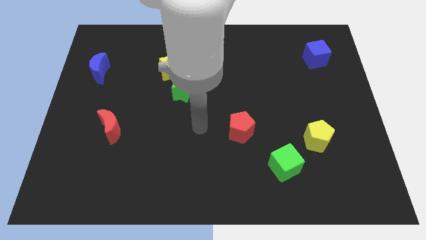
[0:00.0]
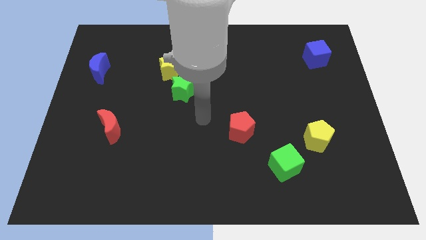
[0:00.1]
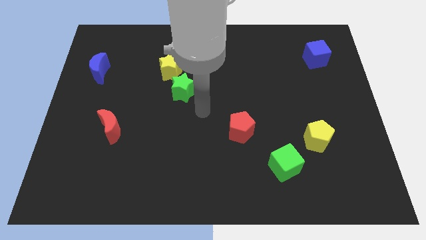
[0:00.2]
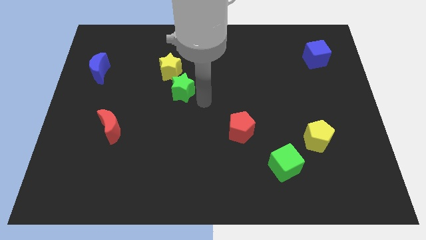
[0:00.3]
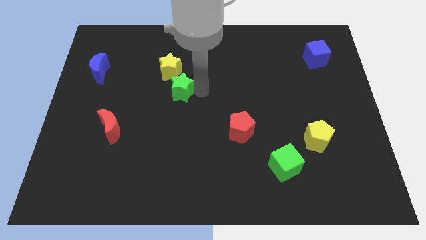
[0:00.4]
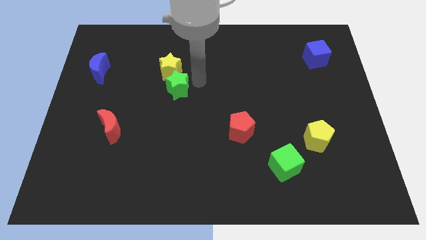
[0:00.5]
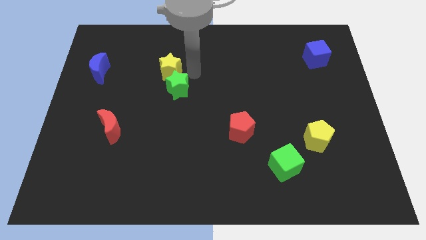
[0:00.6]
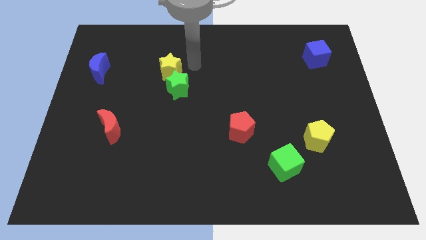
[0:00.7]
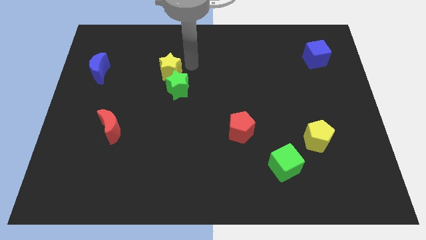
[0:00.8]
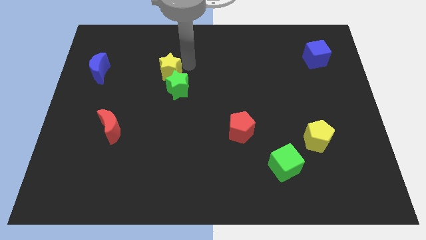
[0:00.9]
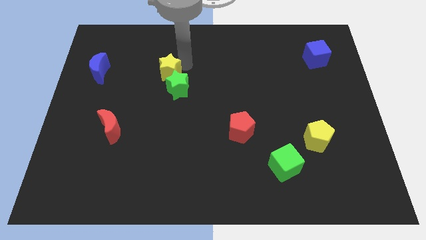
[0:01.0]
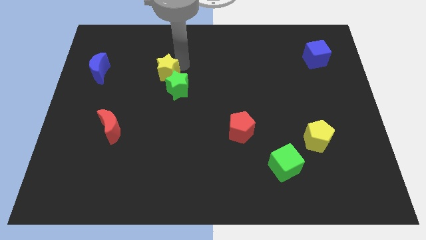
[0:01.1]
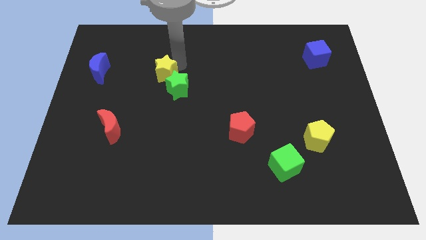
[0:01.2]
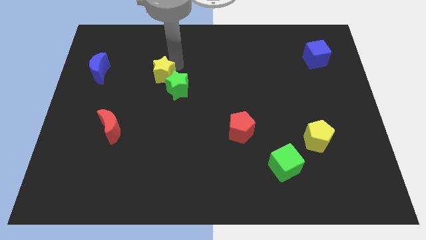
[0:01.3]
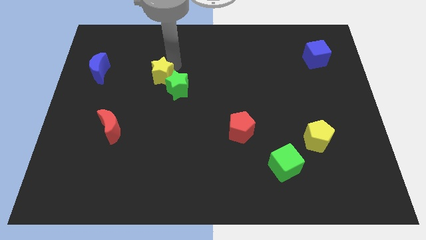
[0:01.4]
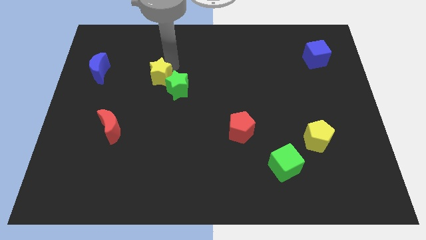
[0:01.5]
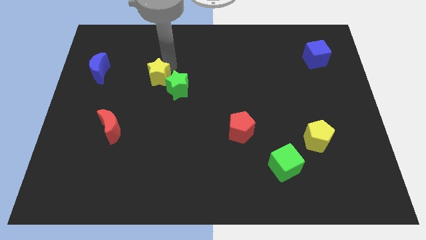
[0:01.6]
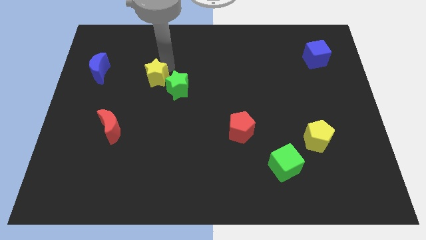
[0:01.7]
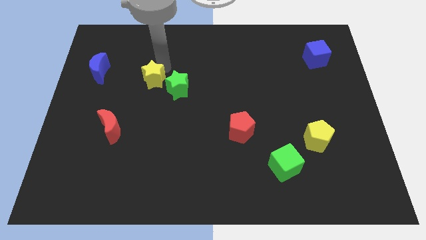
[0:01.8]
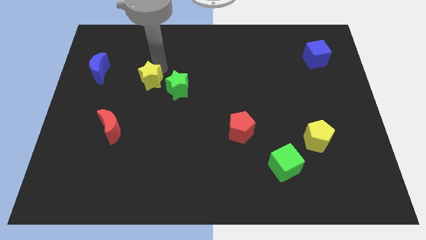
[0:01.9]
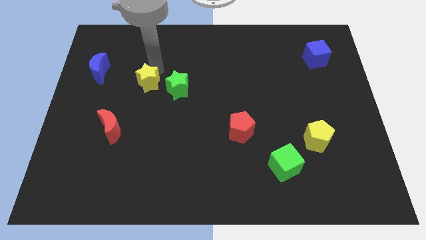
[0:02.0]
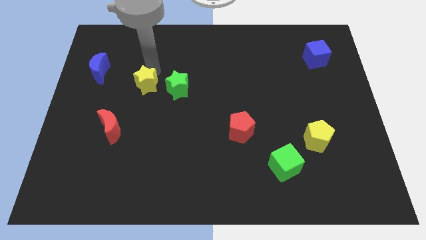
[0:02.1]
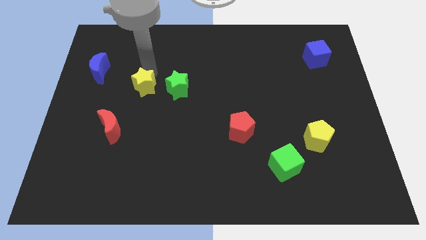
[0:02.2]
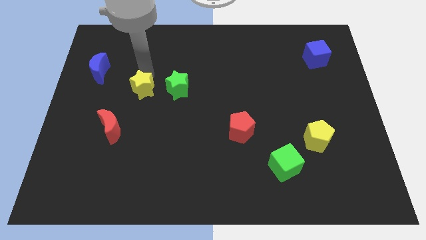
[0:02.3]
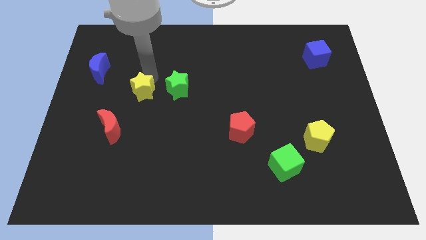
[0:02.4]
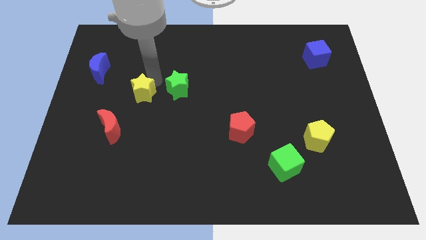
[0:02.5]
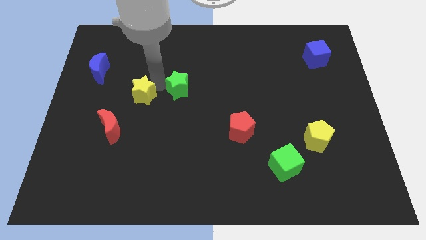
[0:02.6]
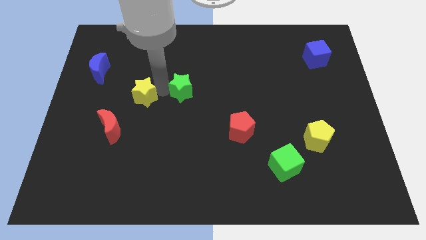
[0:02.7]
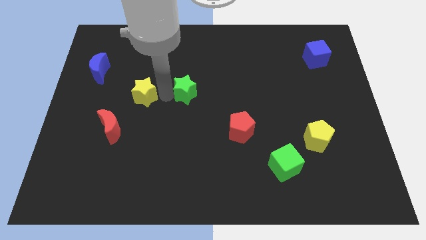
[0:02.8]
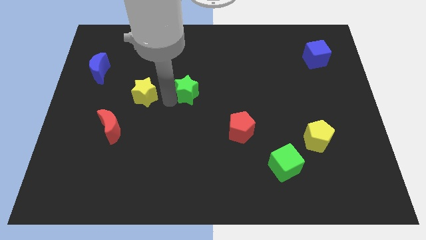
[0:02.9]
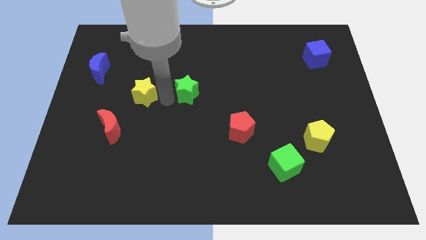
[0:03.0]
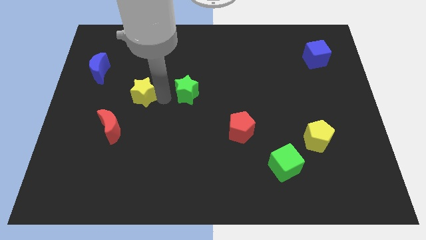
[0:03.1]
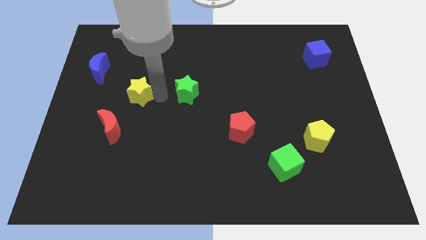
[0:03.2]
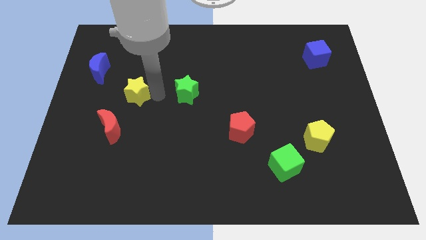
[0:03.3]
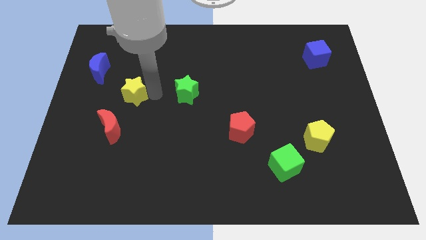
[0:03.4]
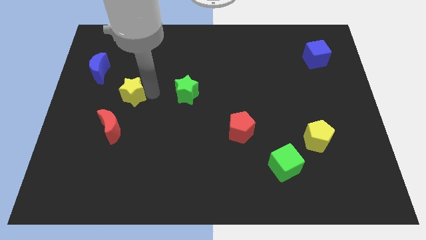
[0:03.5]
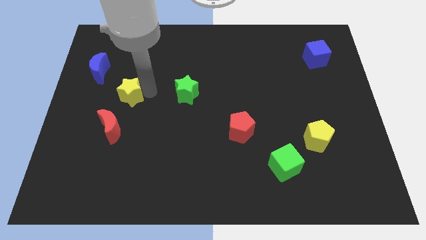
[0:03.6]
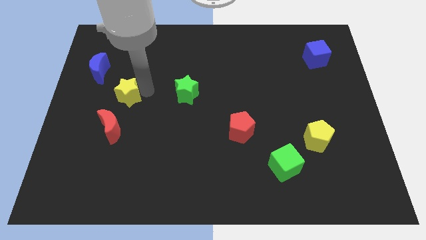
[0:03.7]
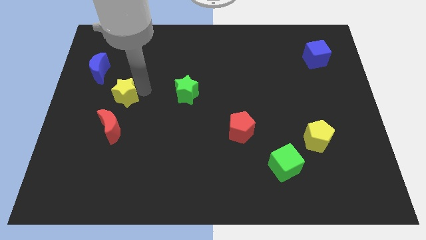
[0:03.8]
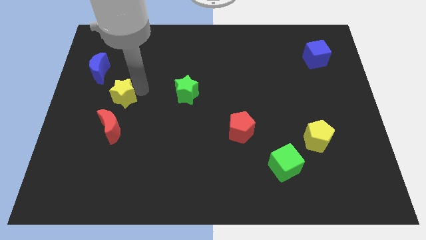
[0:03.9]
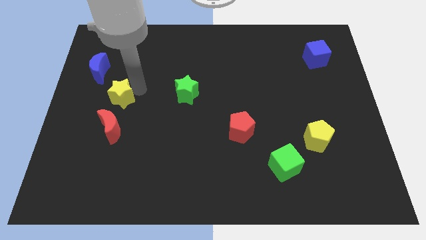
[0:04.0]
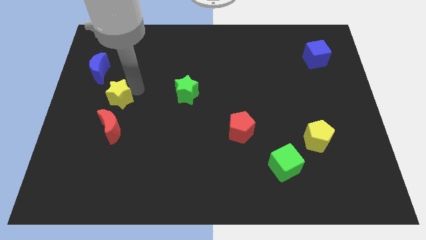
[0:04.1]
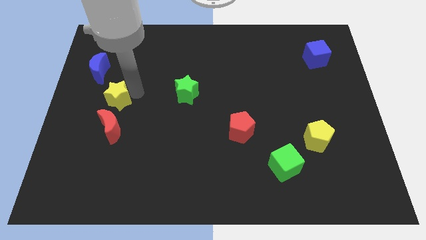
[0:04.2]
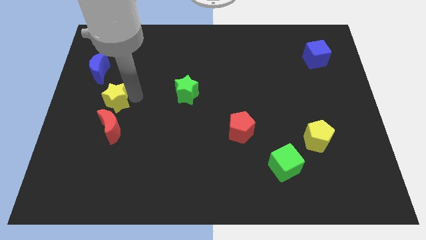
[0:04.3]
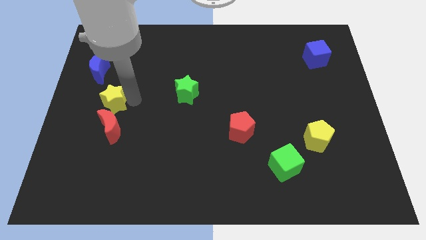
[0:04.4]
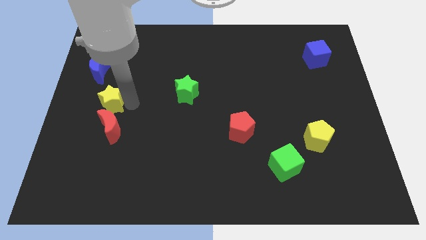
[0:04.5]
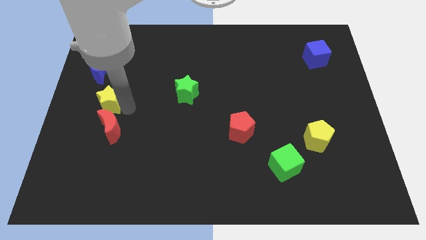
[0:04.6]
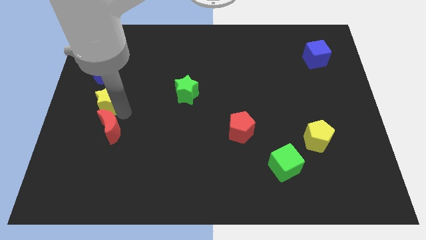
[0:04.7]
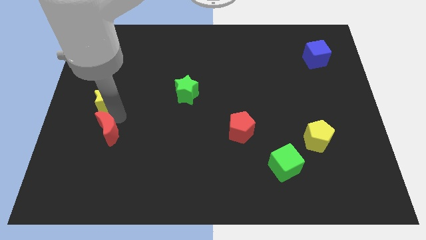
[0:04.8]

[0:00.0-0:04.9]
push the yellow star to the left side of the board

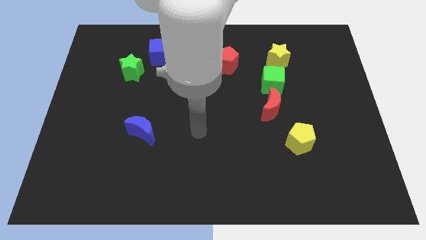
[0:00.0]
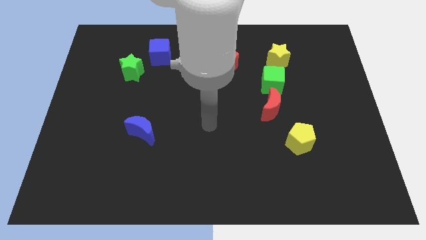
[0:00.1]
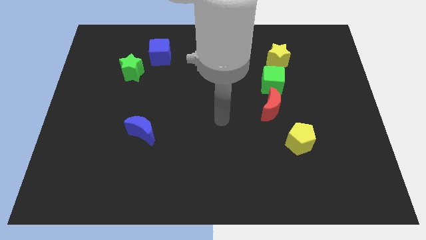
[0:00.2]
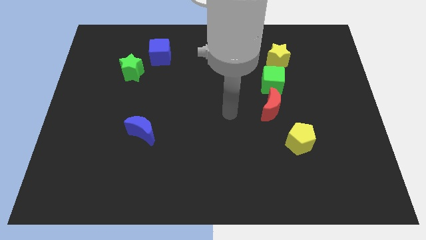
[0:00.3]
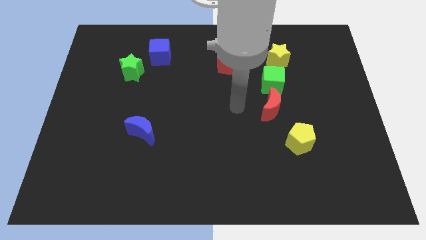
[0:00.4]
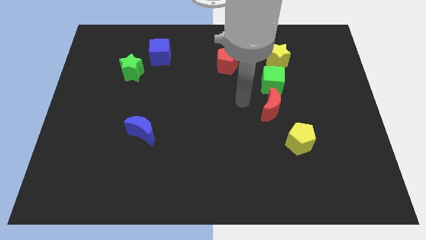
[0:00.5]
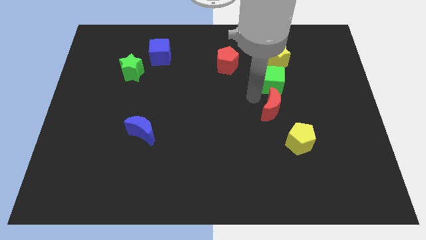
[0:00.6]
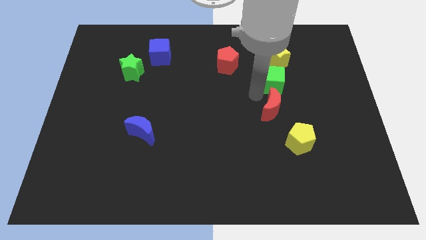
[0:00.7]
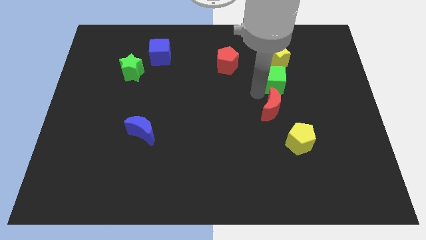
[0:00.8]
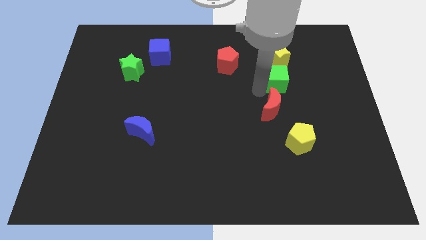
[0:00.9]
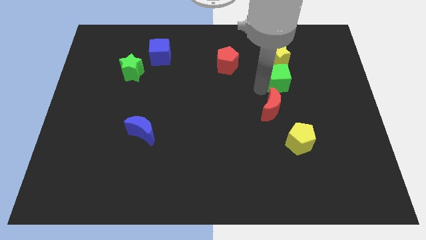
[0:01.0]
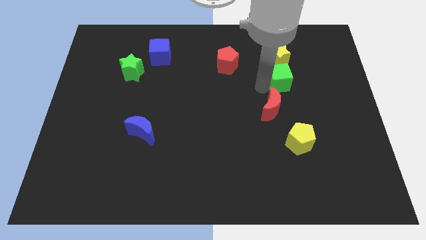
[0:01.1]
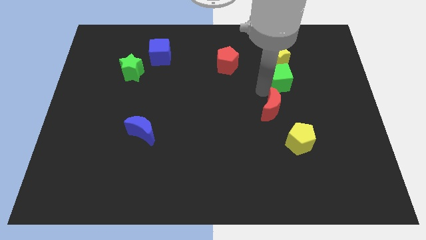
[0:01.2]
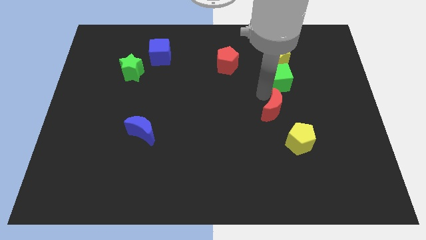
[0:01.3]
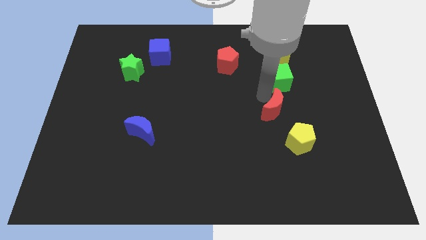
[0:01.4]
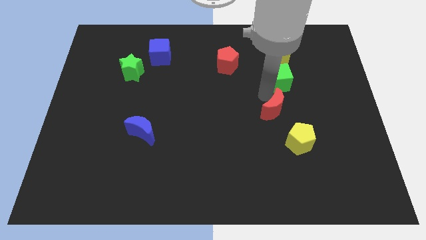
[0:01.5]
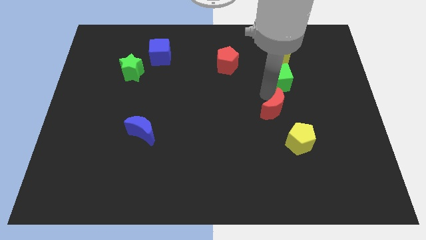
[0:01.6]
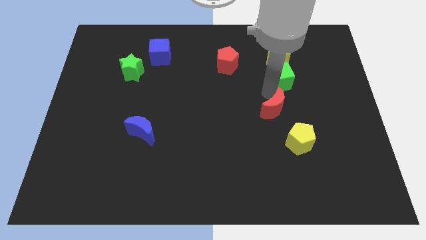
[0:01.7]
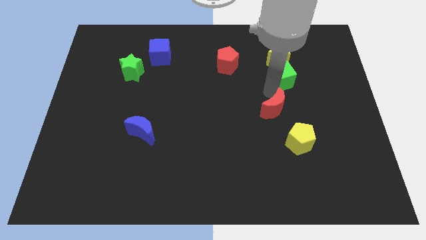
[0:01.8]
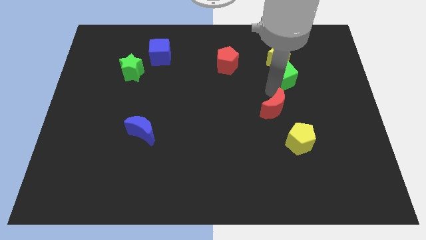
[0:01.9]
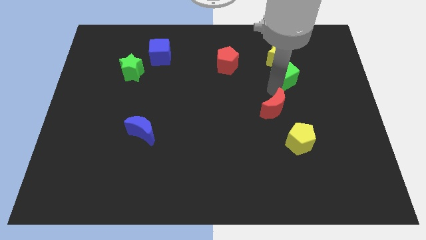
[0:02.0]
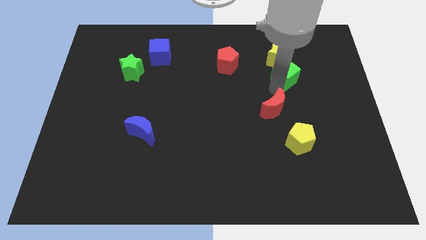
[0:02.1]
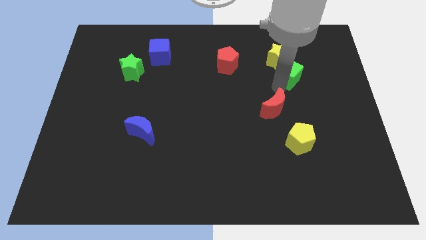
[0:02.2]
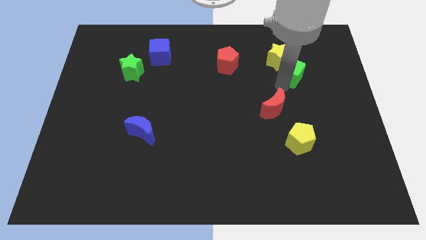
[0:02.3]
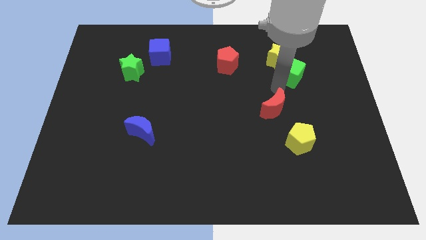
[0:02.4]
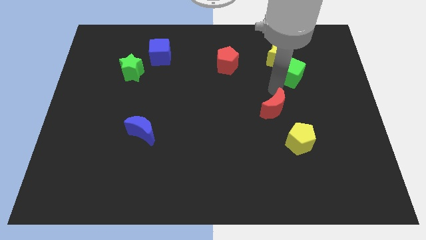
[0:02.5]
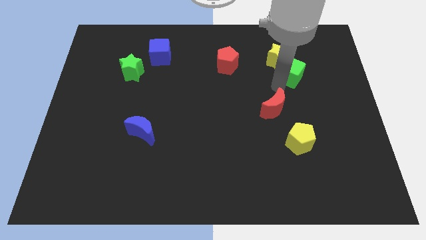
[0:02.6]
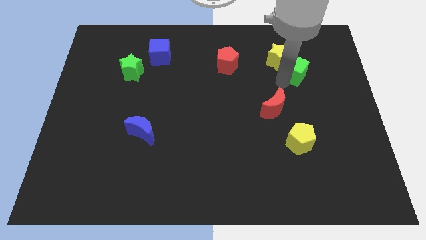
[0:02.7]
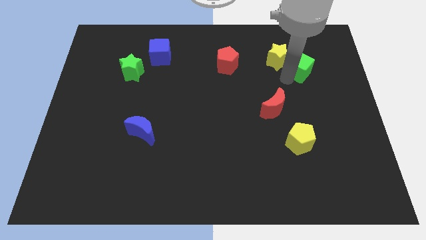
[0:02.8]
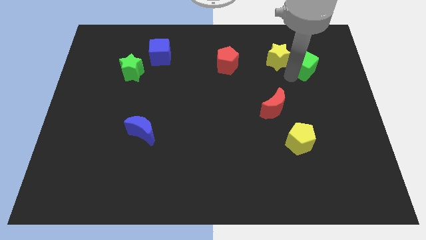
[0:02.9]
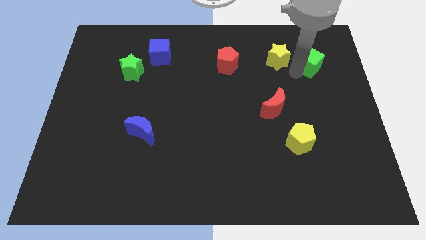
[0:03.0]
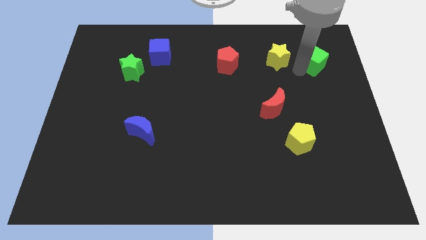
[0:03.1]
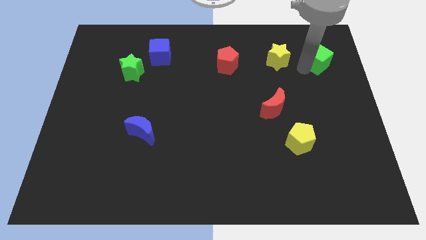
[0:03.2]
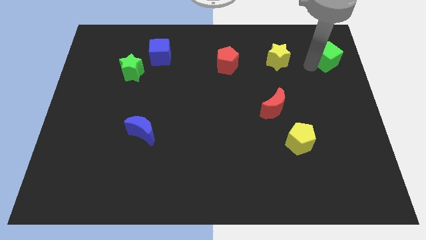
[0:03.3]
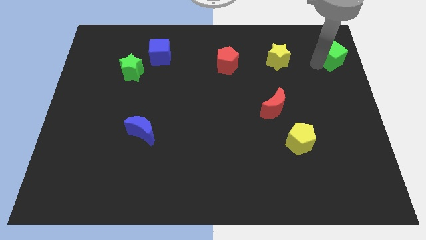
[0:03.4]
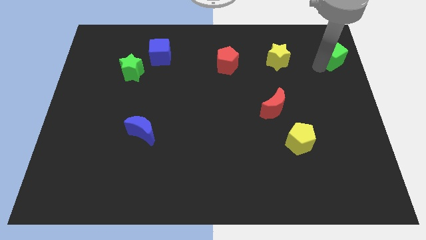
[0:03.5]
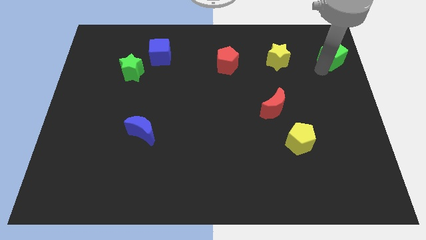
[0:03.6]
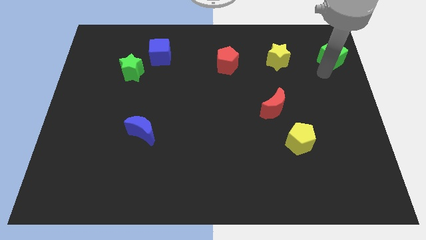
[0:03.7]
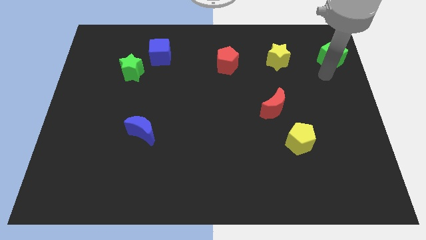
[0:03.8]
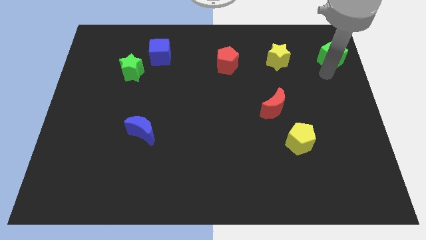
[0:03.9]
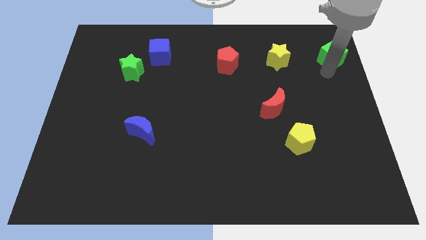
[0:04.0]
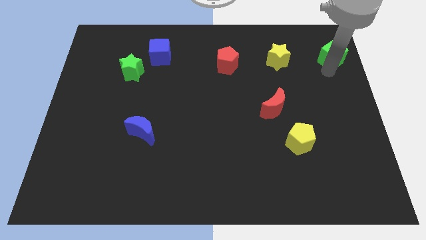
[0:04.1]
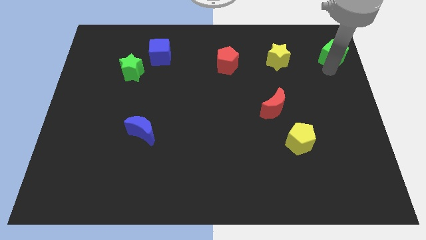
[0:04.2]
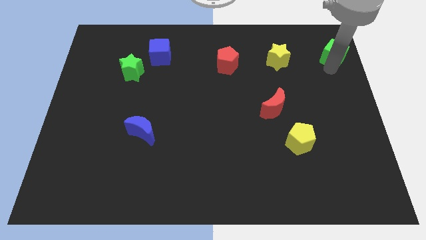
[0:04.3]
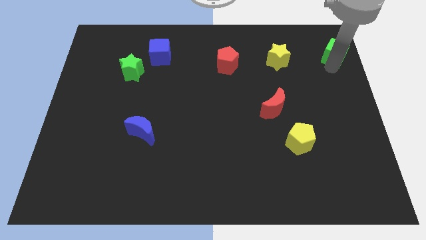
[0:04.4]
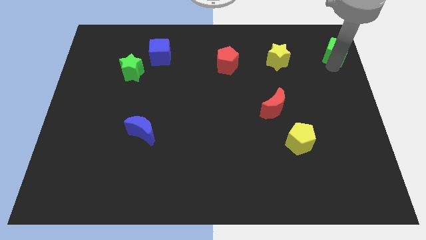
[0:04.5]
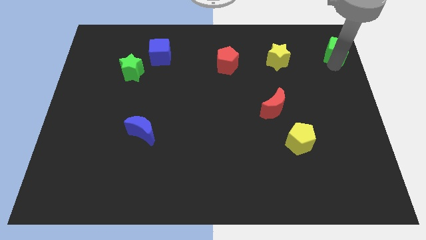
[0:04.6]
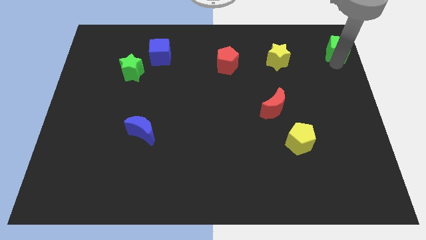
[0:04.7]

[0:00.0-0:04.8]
slide the green cube to the upper right corner
